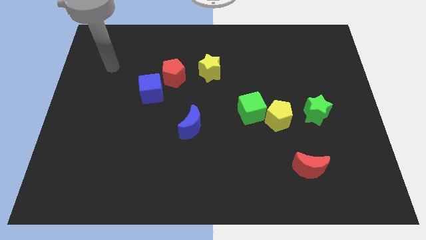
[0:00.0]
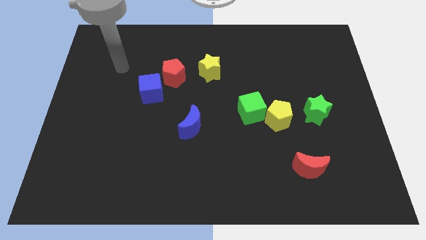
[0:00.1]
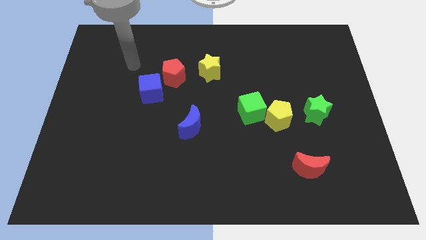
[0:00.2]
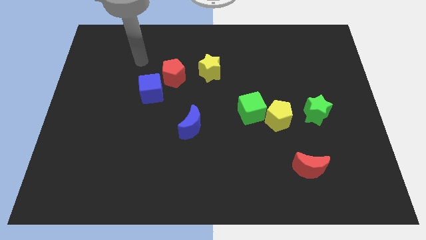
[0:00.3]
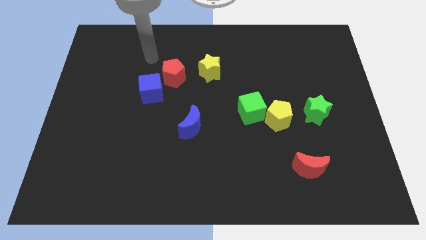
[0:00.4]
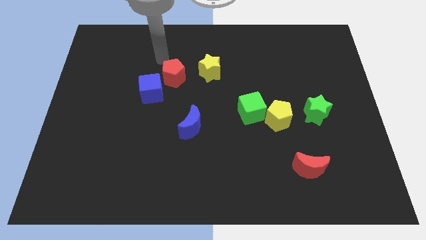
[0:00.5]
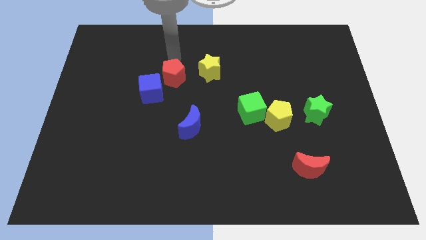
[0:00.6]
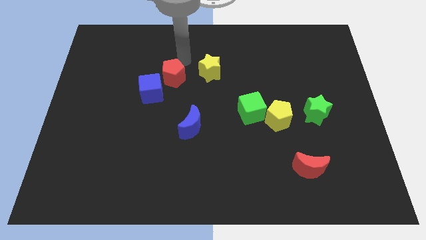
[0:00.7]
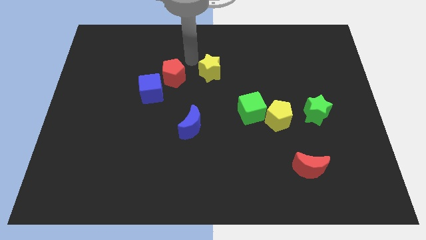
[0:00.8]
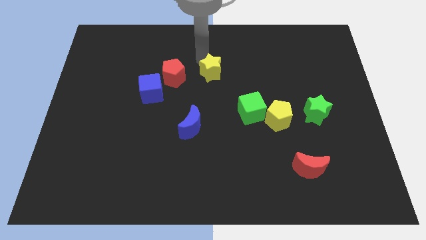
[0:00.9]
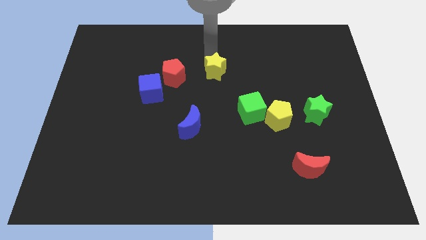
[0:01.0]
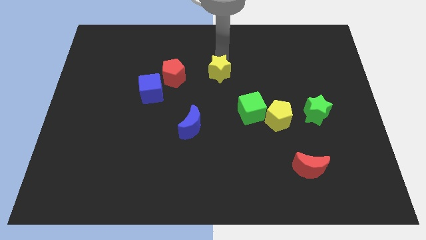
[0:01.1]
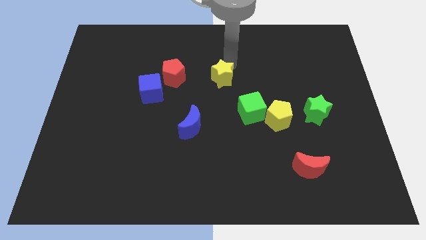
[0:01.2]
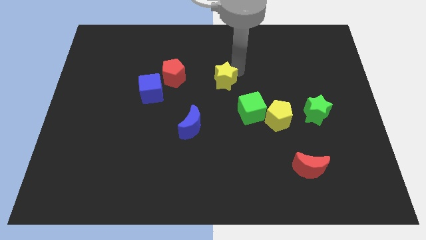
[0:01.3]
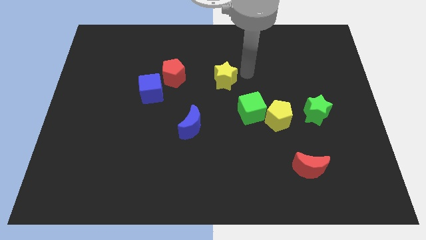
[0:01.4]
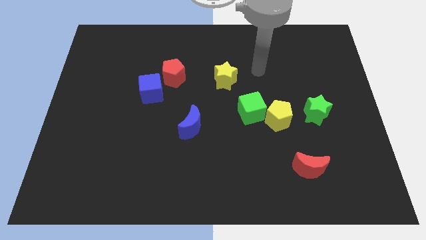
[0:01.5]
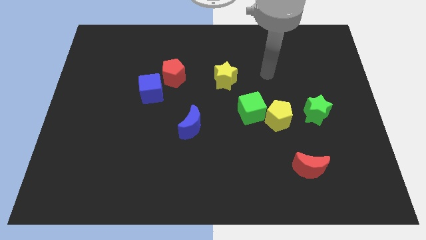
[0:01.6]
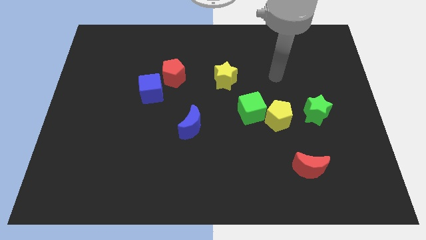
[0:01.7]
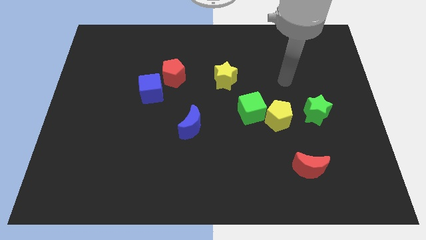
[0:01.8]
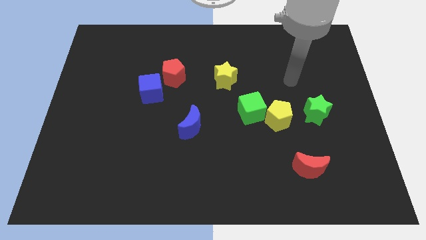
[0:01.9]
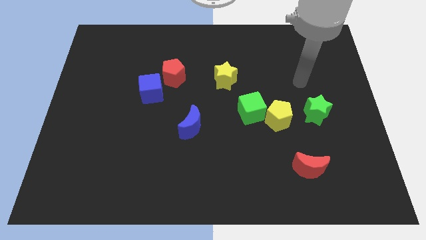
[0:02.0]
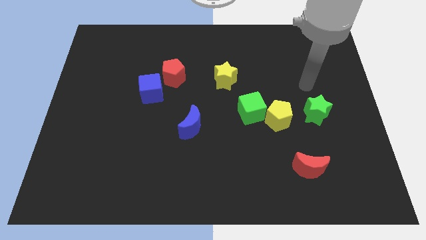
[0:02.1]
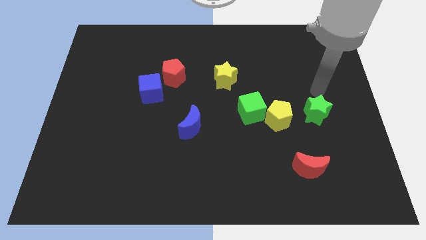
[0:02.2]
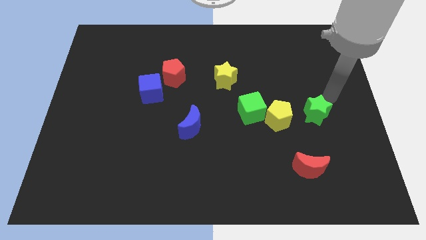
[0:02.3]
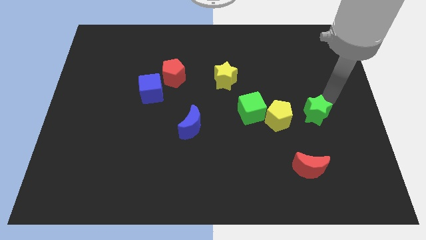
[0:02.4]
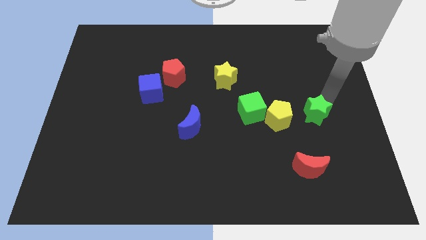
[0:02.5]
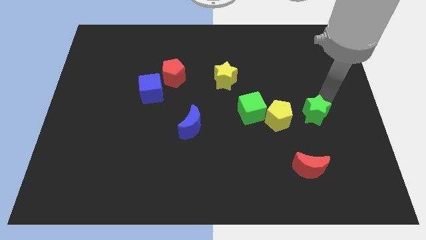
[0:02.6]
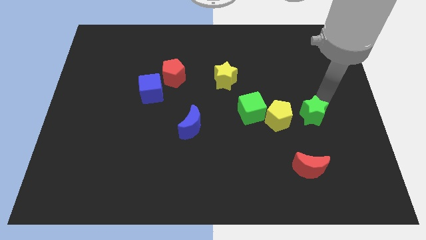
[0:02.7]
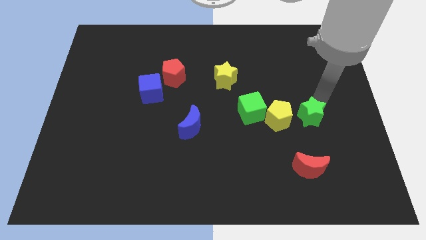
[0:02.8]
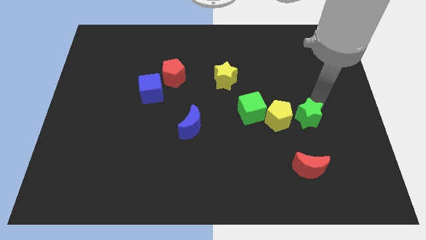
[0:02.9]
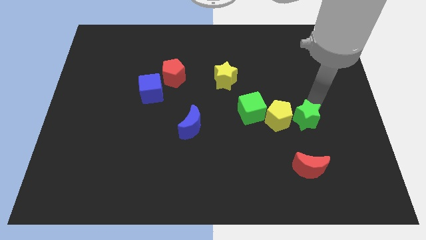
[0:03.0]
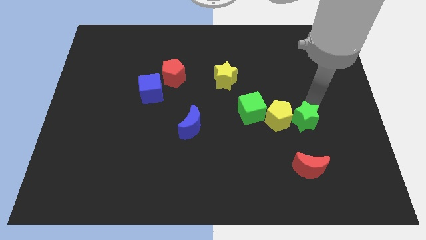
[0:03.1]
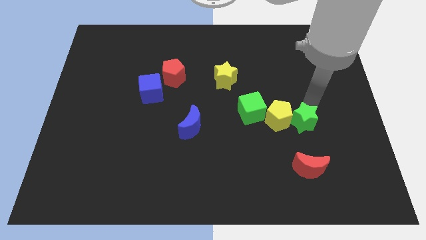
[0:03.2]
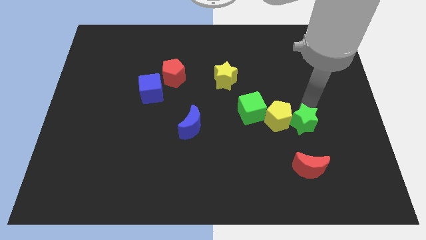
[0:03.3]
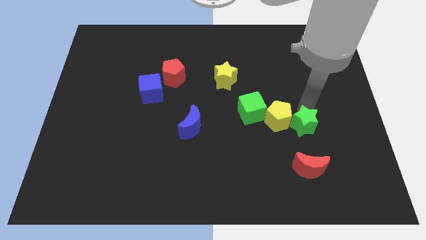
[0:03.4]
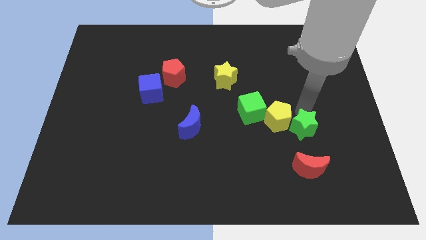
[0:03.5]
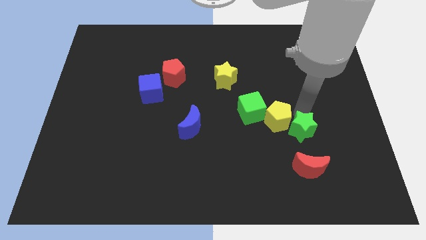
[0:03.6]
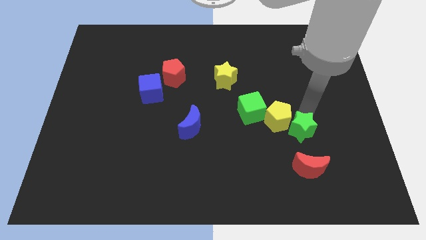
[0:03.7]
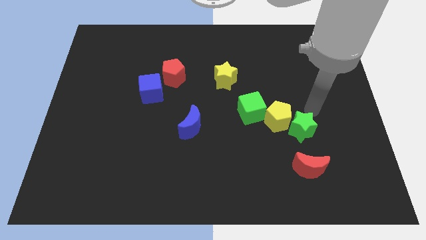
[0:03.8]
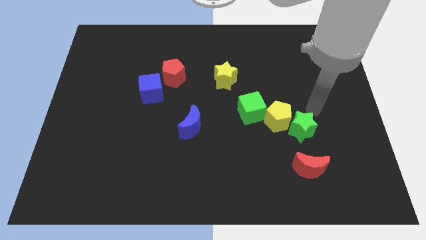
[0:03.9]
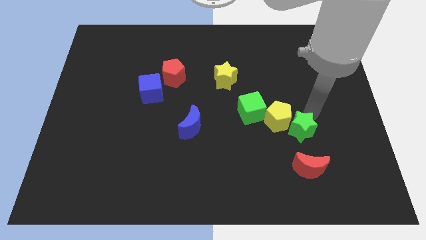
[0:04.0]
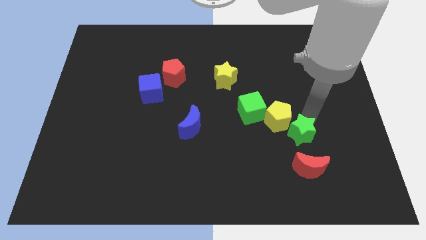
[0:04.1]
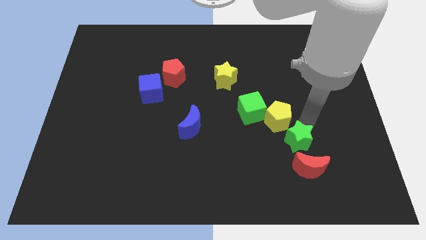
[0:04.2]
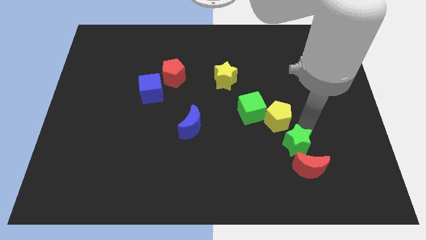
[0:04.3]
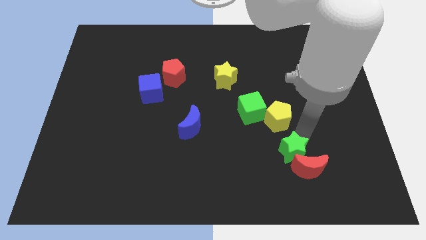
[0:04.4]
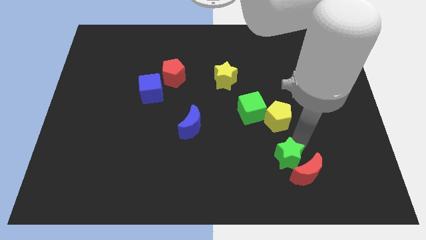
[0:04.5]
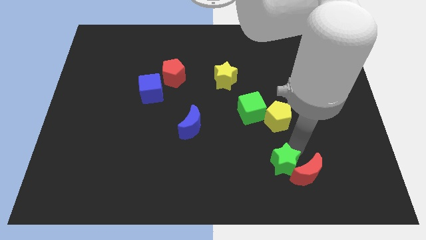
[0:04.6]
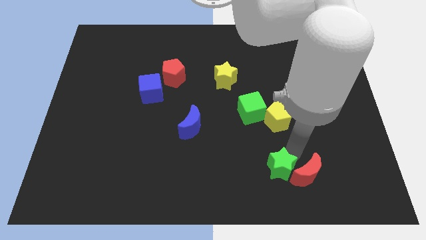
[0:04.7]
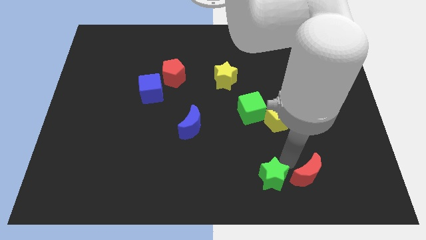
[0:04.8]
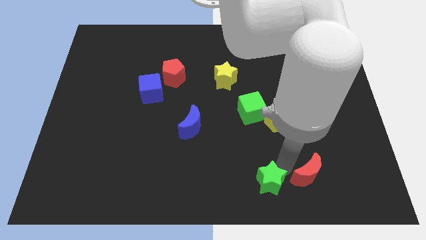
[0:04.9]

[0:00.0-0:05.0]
move the green star to the bottom side

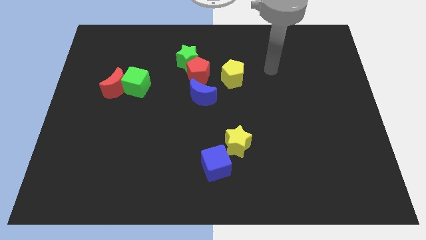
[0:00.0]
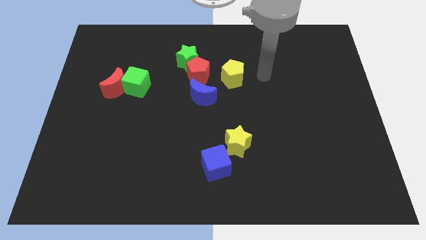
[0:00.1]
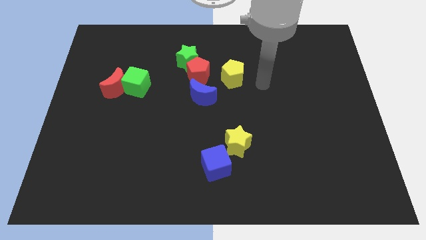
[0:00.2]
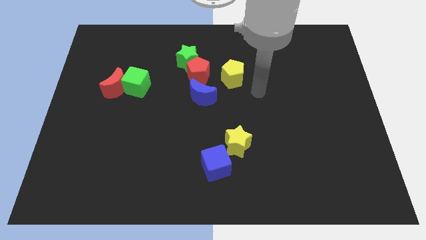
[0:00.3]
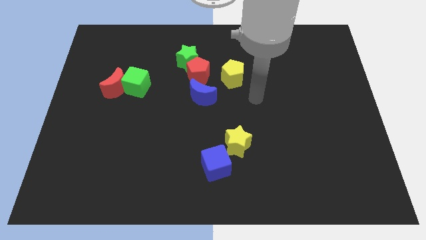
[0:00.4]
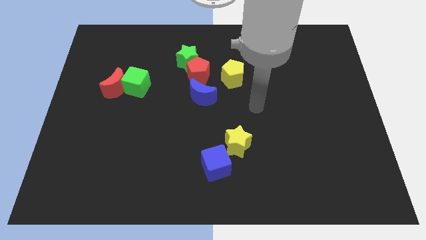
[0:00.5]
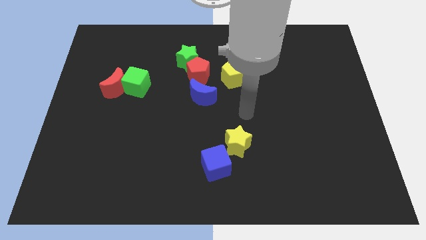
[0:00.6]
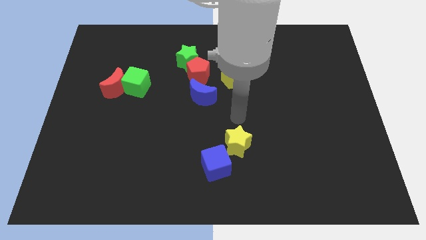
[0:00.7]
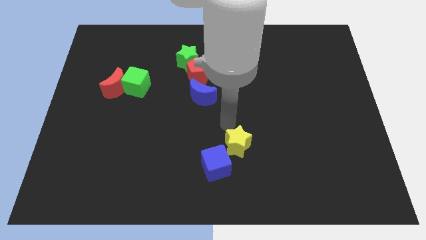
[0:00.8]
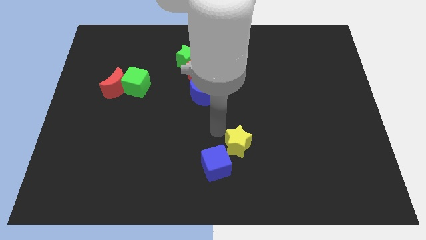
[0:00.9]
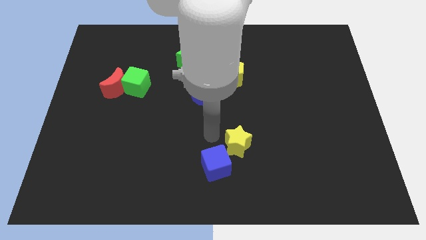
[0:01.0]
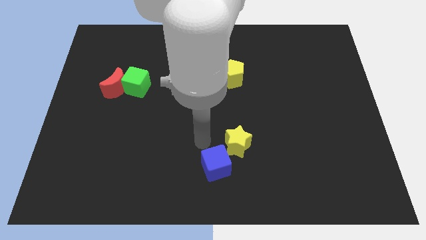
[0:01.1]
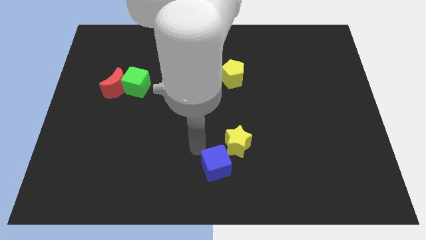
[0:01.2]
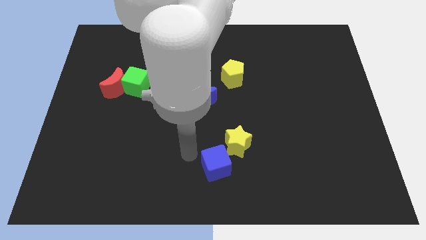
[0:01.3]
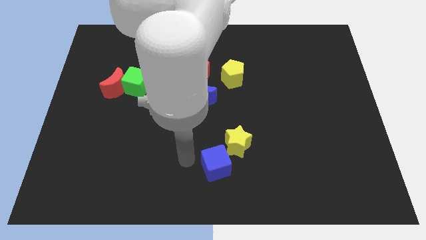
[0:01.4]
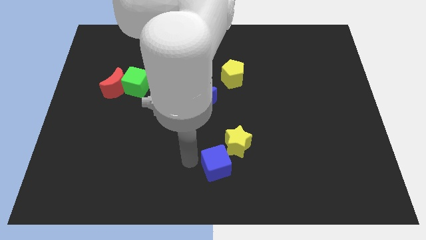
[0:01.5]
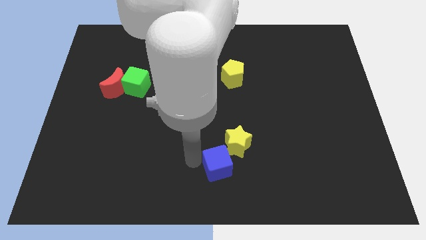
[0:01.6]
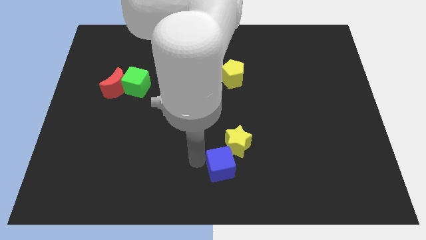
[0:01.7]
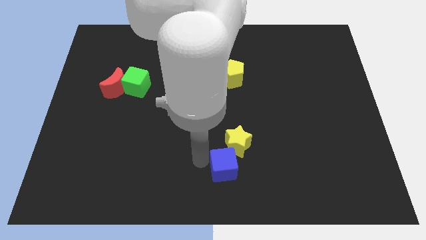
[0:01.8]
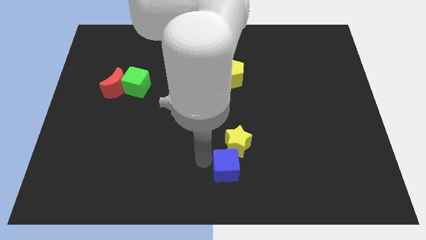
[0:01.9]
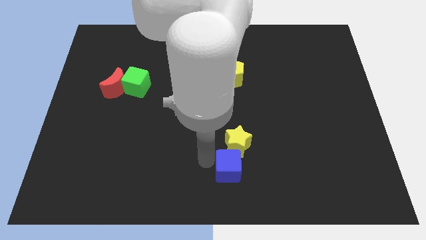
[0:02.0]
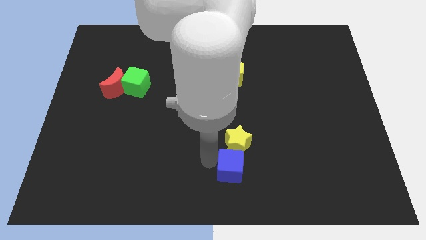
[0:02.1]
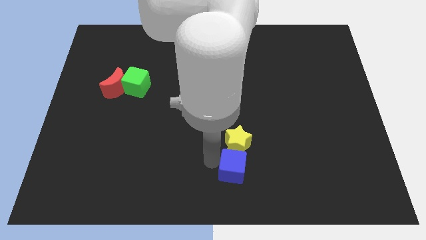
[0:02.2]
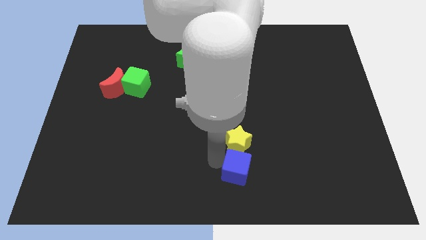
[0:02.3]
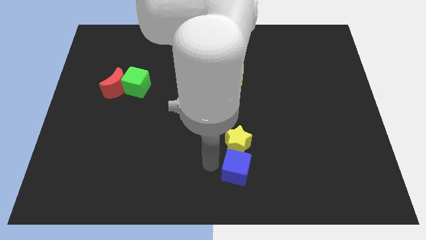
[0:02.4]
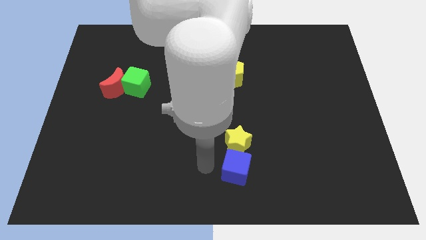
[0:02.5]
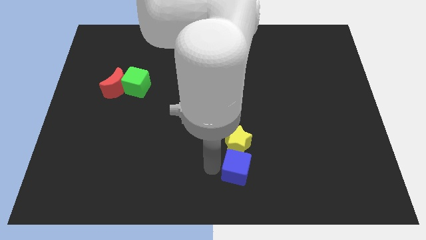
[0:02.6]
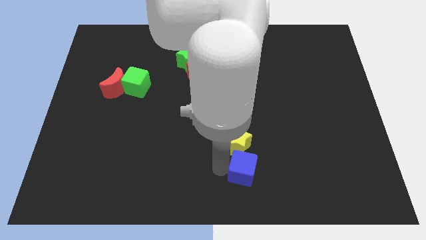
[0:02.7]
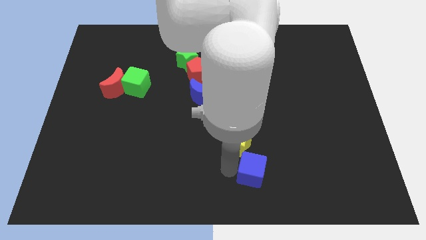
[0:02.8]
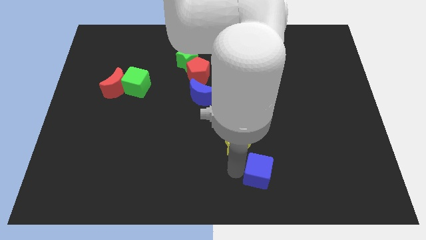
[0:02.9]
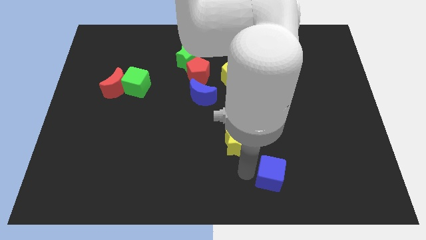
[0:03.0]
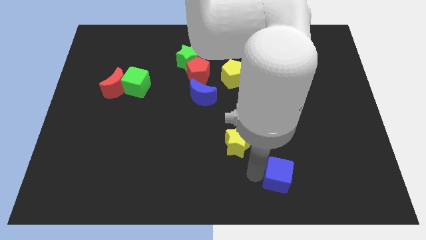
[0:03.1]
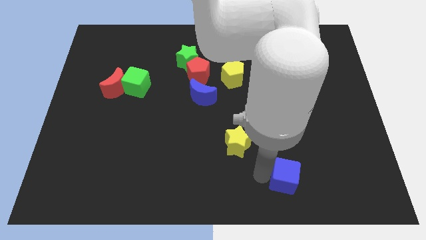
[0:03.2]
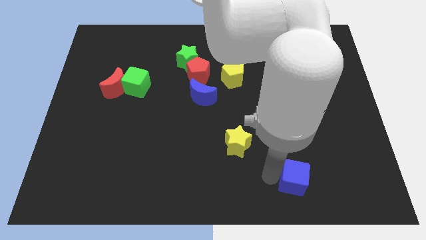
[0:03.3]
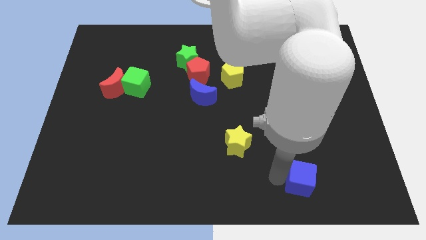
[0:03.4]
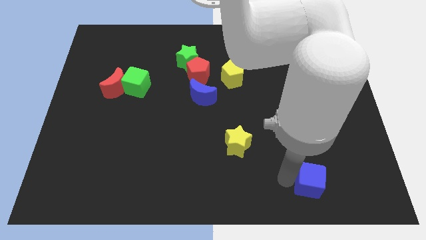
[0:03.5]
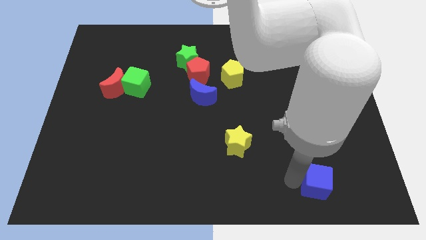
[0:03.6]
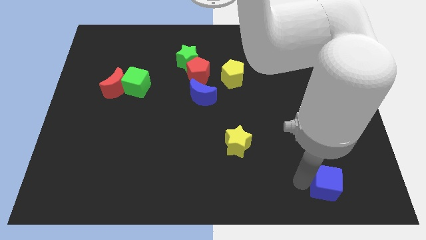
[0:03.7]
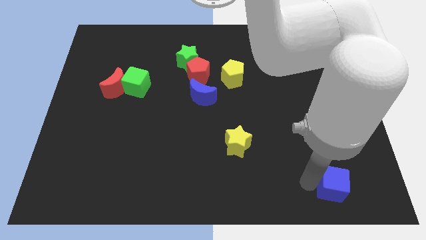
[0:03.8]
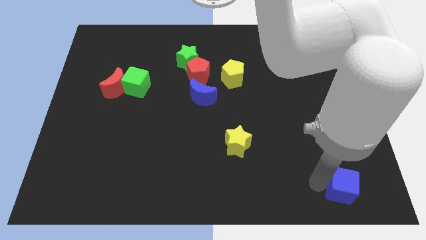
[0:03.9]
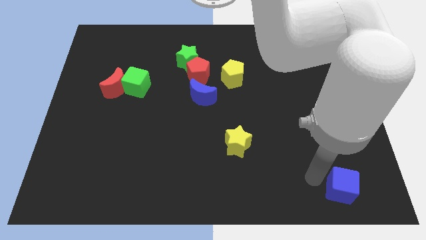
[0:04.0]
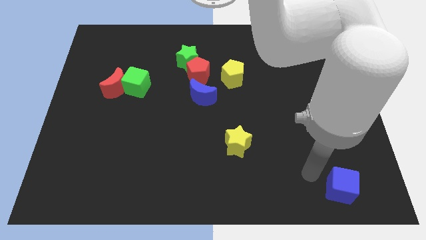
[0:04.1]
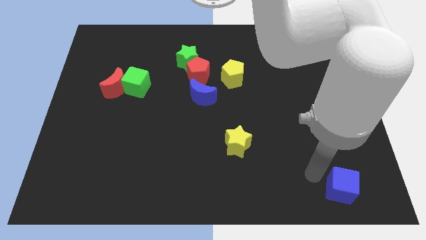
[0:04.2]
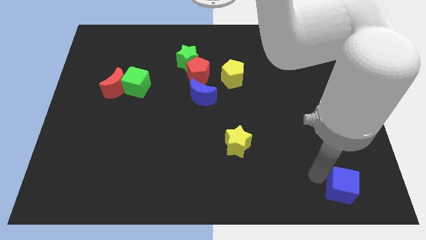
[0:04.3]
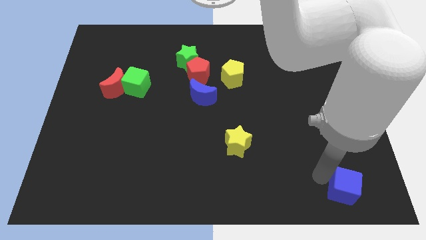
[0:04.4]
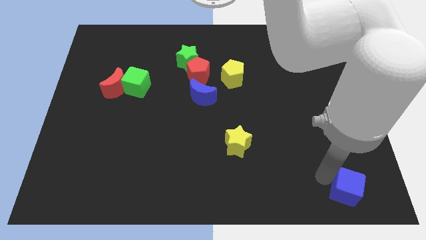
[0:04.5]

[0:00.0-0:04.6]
push the blue cube to the bottom right of the board
